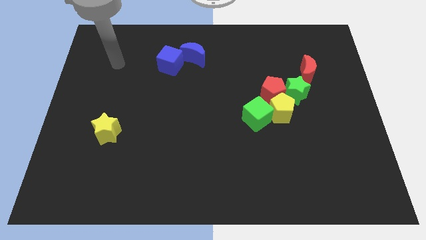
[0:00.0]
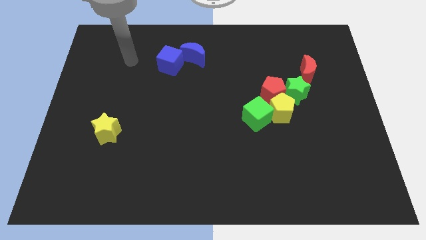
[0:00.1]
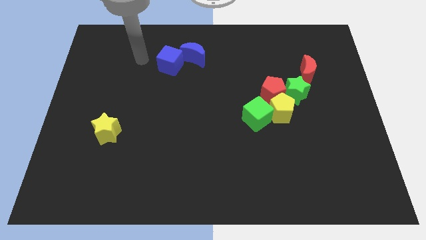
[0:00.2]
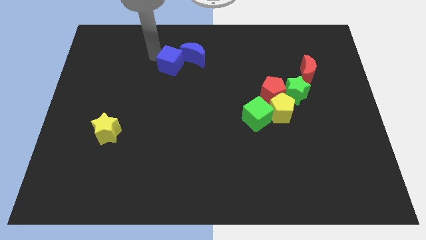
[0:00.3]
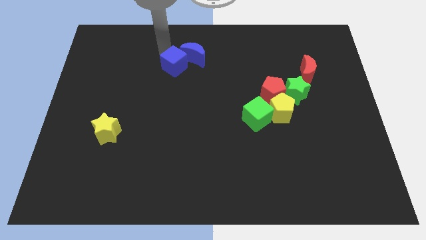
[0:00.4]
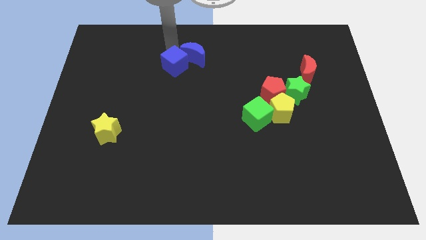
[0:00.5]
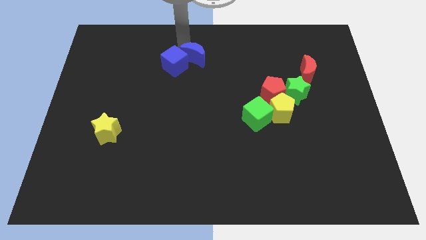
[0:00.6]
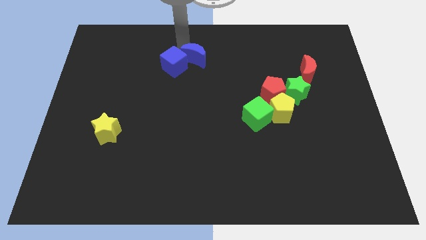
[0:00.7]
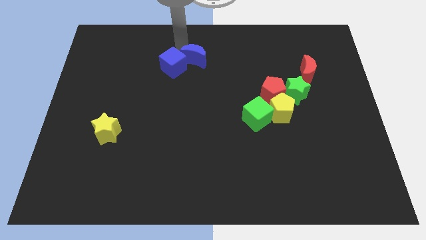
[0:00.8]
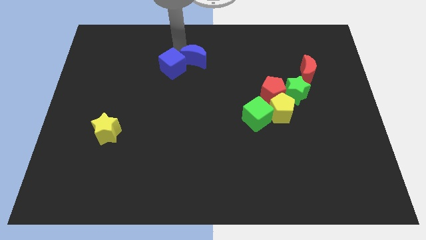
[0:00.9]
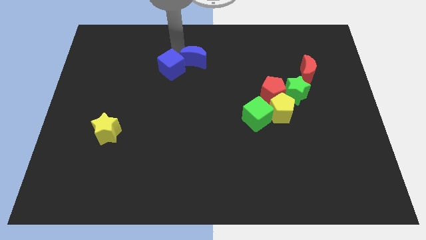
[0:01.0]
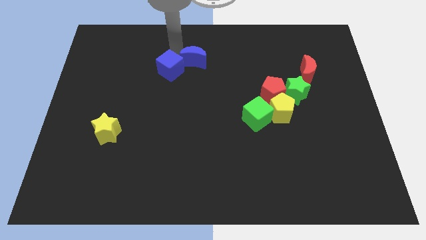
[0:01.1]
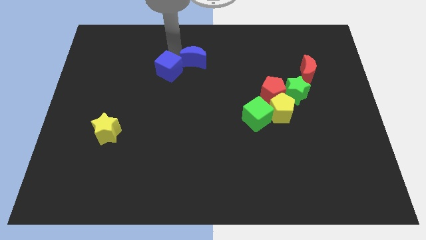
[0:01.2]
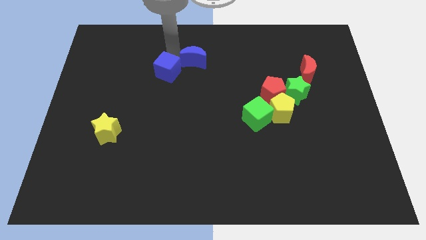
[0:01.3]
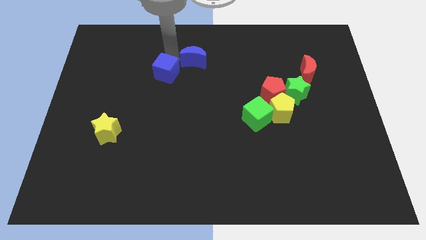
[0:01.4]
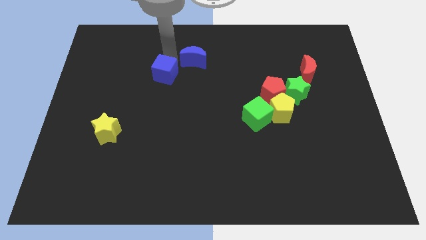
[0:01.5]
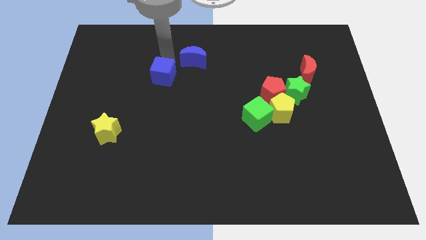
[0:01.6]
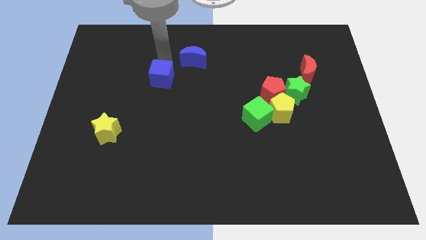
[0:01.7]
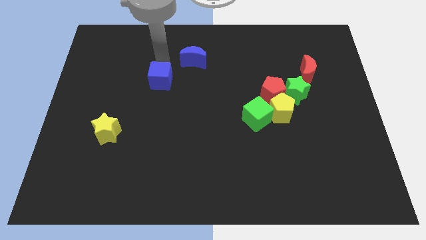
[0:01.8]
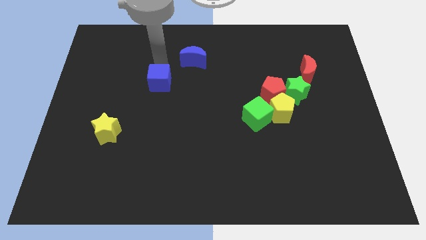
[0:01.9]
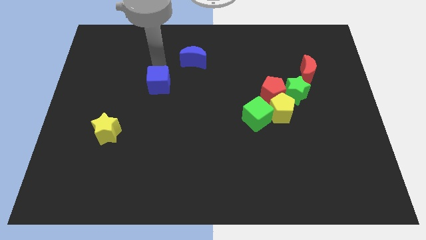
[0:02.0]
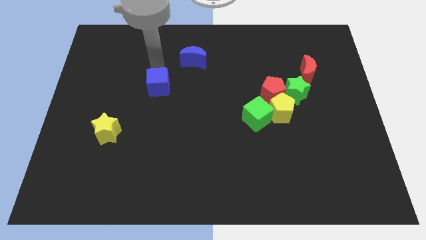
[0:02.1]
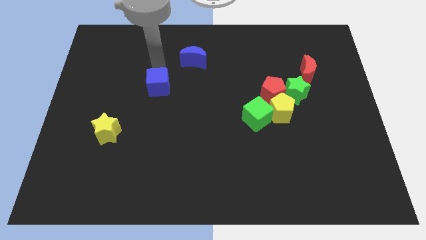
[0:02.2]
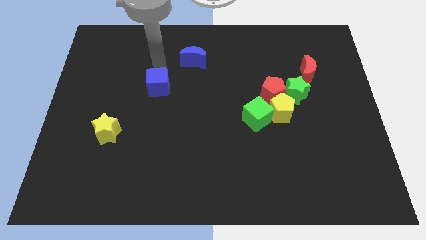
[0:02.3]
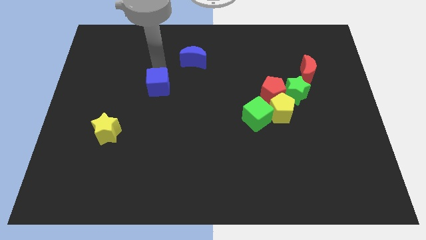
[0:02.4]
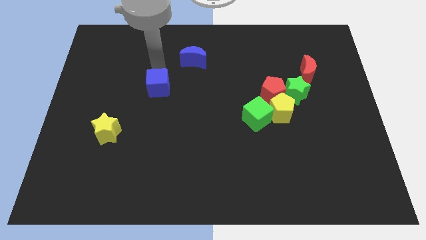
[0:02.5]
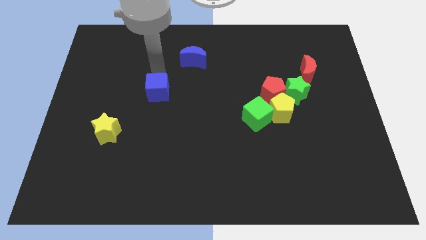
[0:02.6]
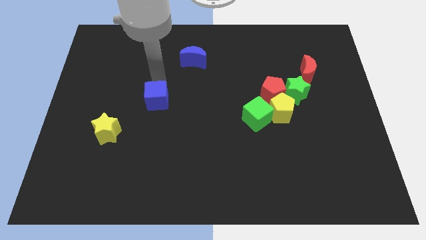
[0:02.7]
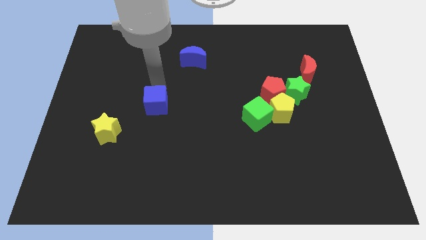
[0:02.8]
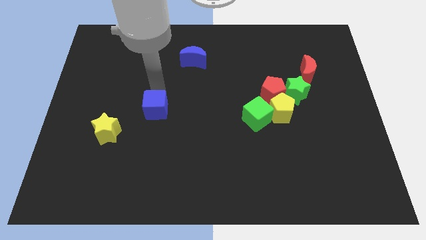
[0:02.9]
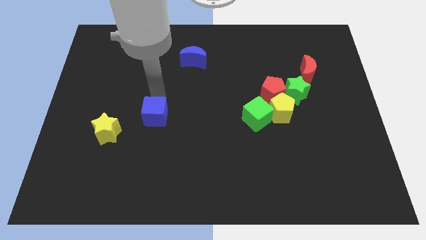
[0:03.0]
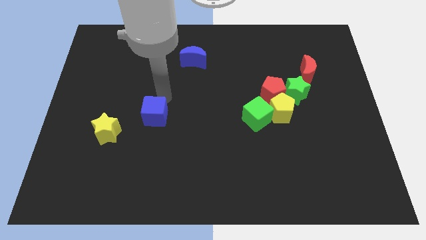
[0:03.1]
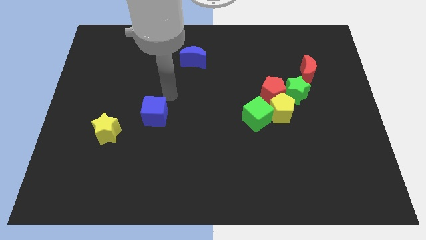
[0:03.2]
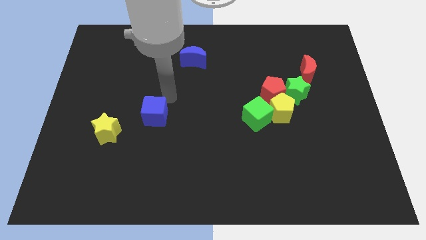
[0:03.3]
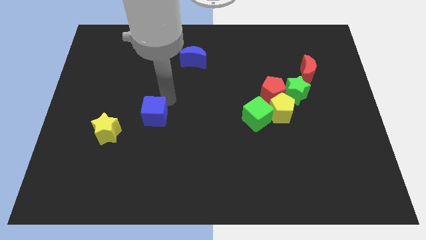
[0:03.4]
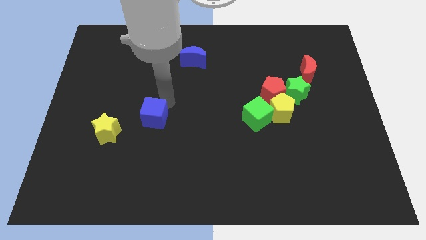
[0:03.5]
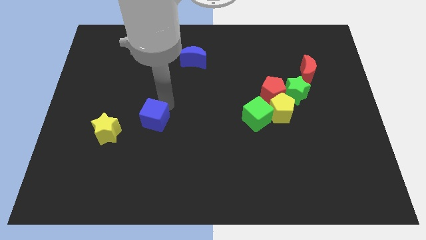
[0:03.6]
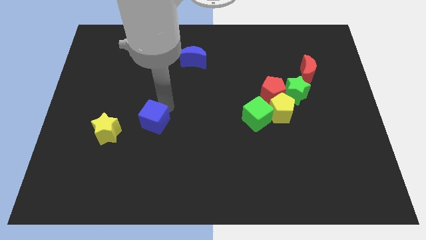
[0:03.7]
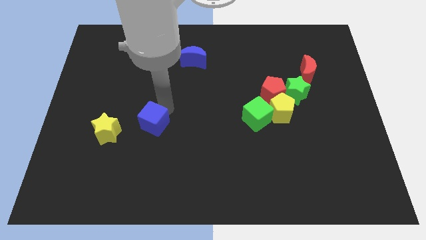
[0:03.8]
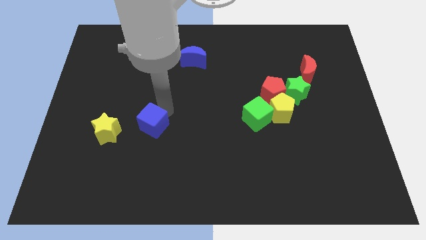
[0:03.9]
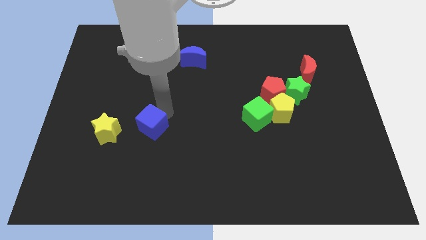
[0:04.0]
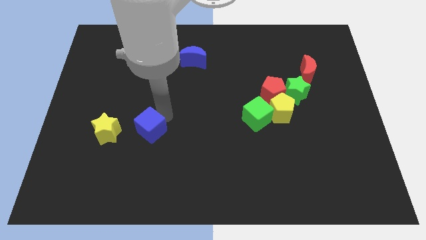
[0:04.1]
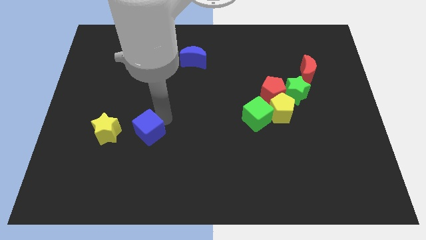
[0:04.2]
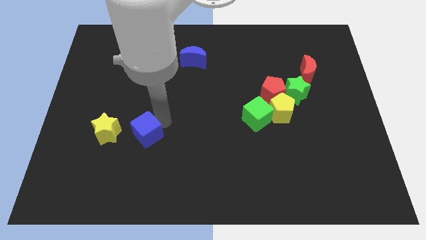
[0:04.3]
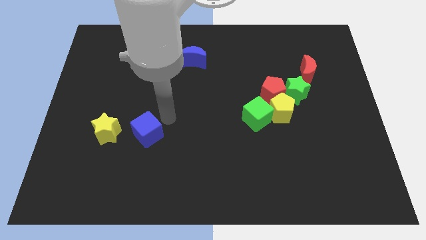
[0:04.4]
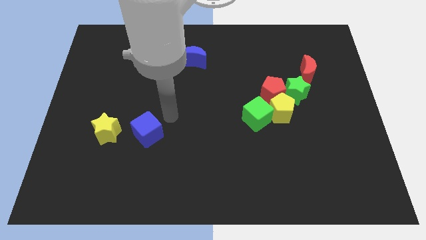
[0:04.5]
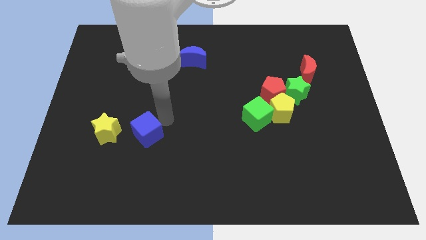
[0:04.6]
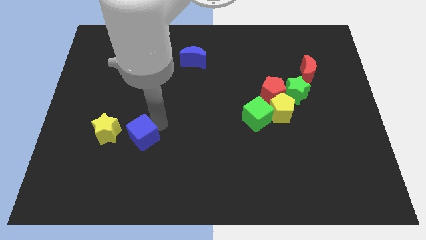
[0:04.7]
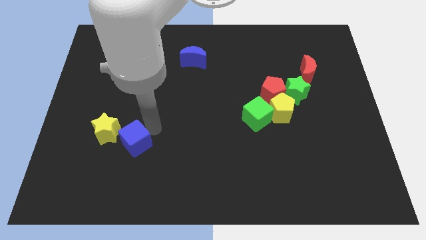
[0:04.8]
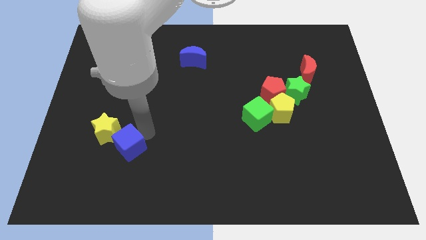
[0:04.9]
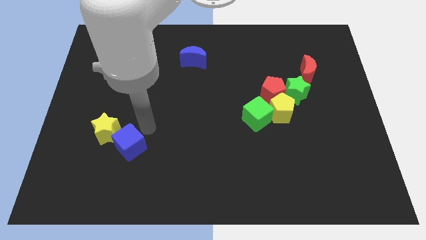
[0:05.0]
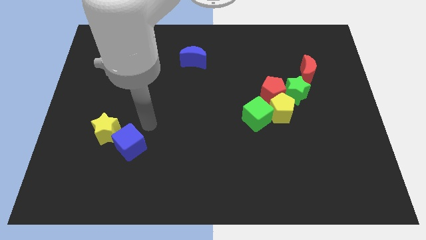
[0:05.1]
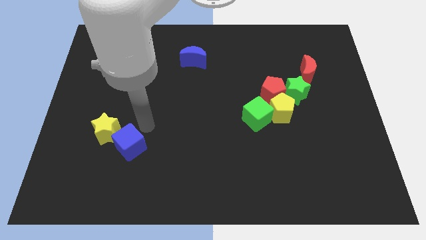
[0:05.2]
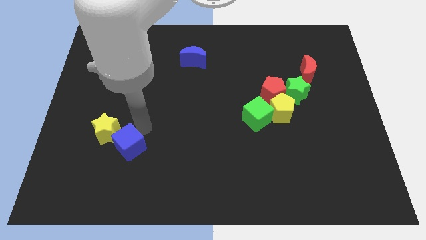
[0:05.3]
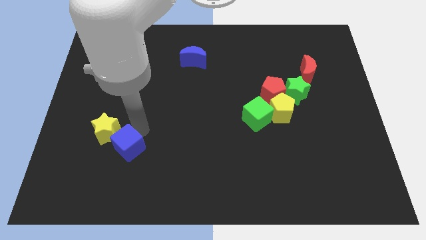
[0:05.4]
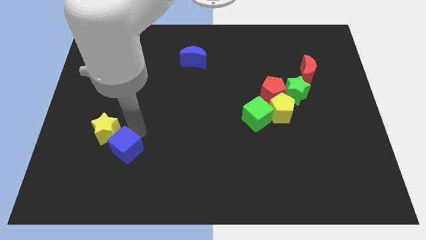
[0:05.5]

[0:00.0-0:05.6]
push the blue cube to the bottom of the yellow star

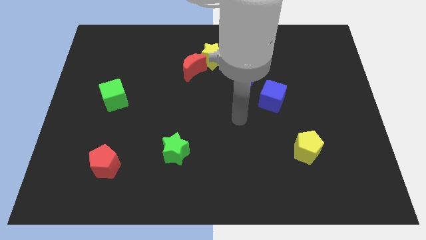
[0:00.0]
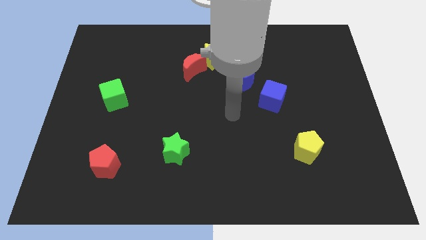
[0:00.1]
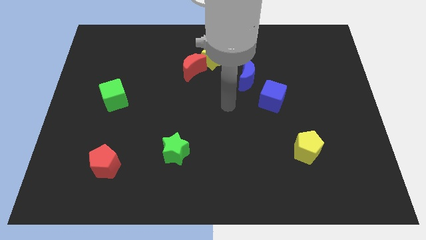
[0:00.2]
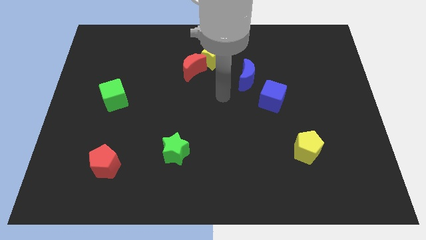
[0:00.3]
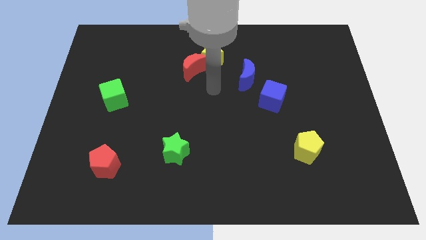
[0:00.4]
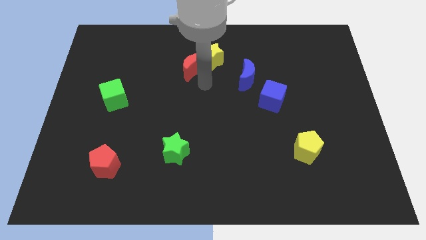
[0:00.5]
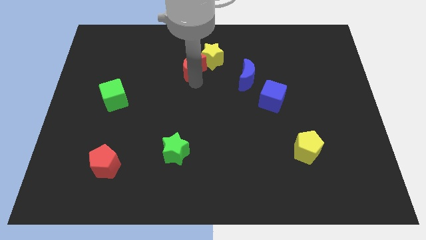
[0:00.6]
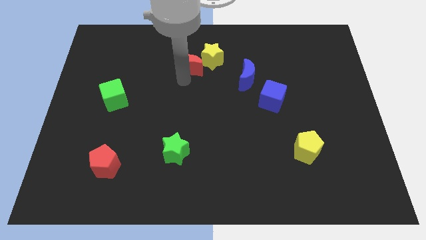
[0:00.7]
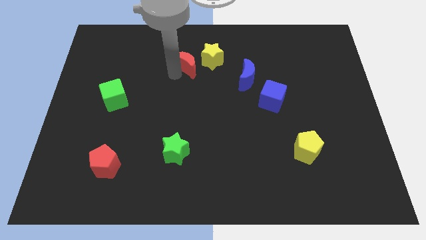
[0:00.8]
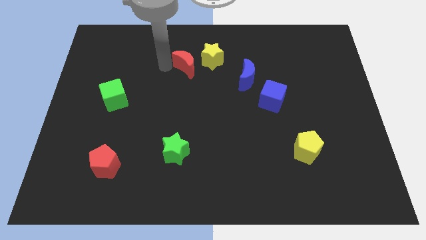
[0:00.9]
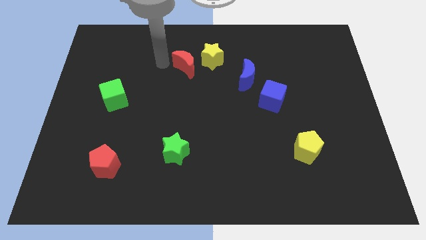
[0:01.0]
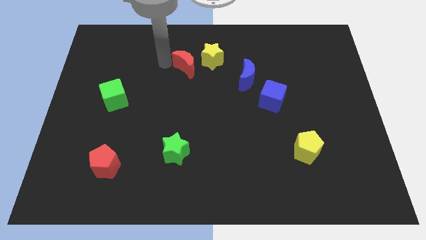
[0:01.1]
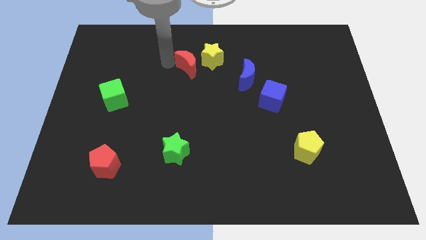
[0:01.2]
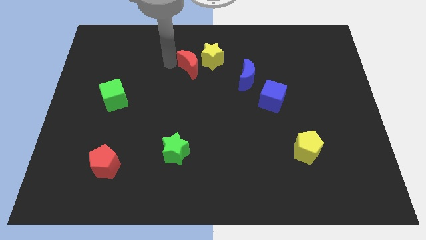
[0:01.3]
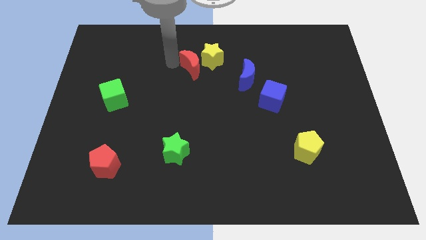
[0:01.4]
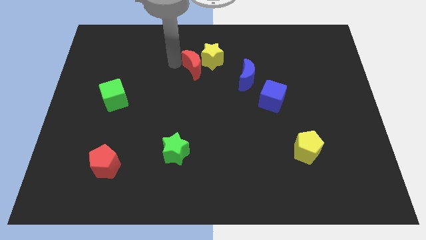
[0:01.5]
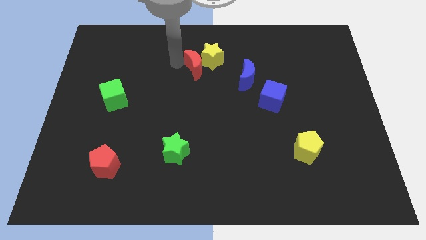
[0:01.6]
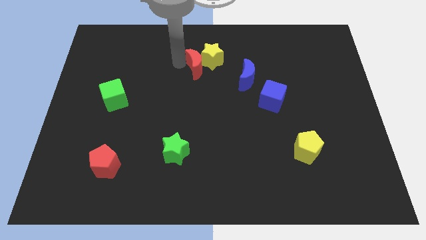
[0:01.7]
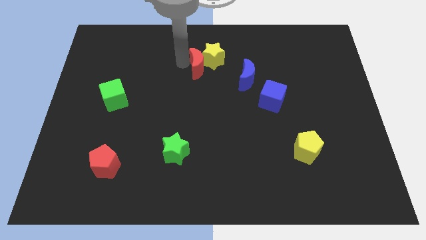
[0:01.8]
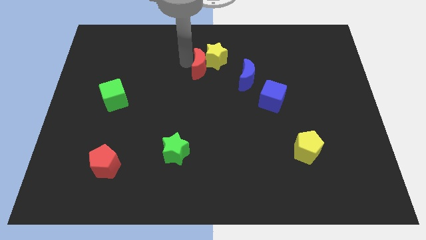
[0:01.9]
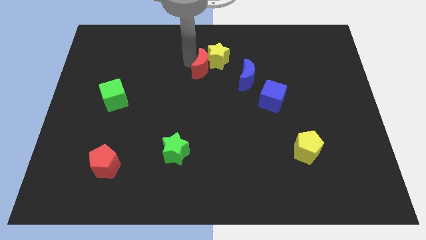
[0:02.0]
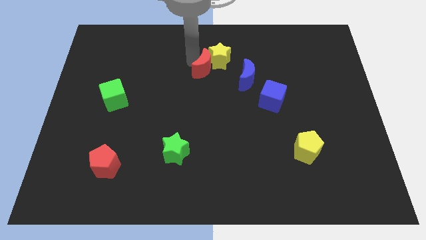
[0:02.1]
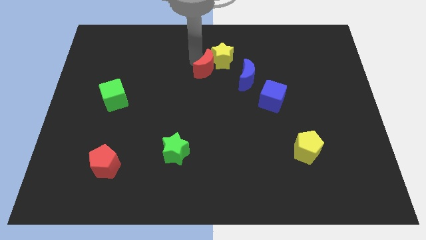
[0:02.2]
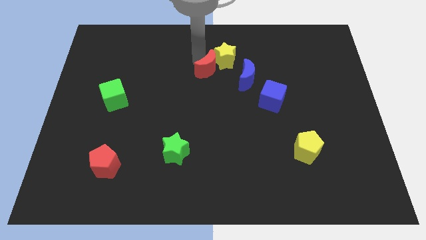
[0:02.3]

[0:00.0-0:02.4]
move the red moon diagonally up and to the left of the blue moon
